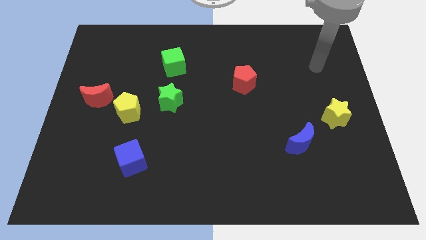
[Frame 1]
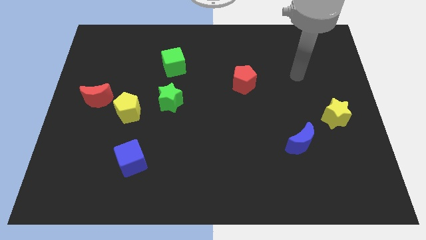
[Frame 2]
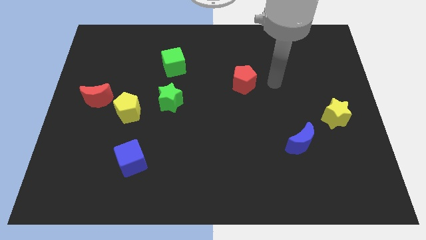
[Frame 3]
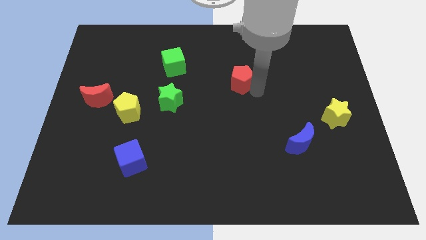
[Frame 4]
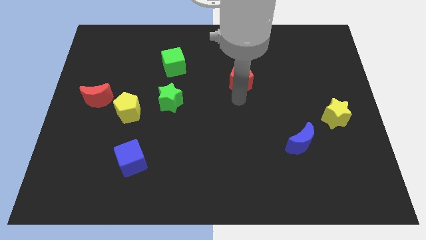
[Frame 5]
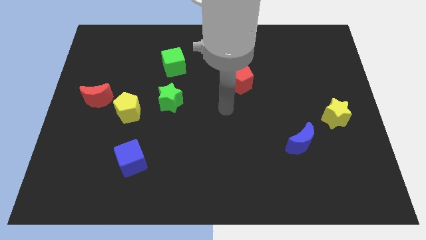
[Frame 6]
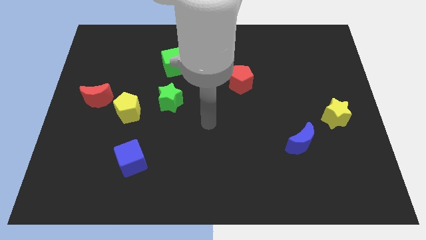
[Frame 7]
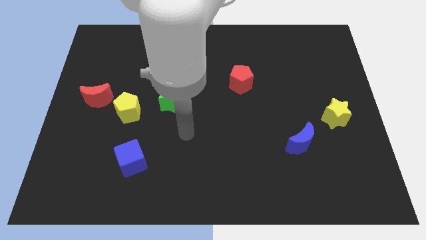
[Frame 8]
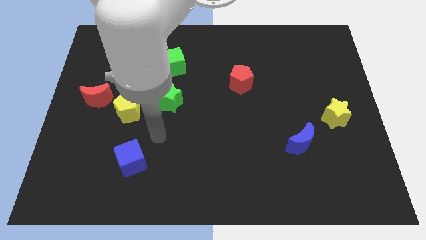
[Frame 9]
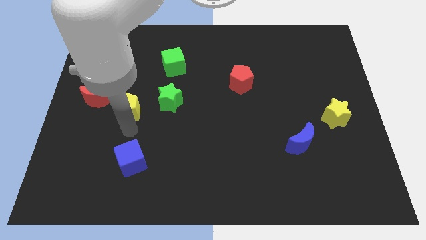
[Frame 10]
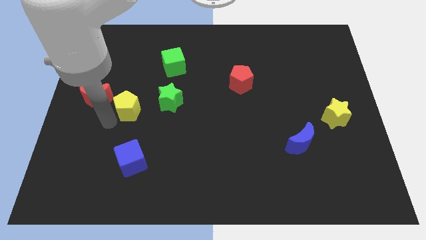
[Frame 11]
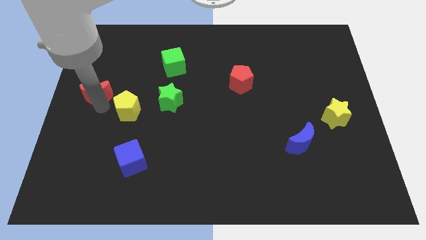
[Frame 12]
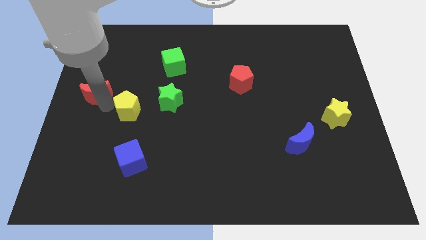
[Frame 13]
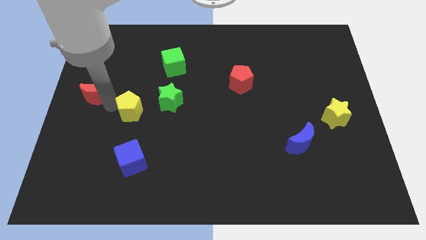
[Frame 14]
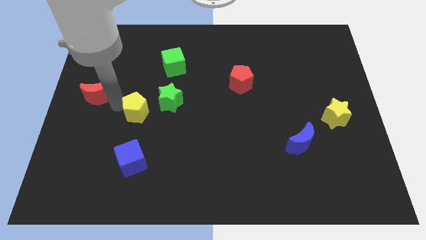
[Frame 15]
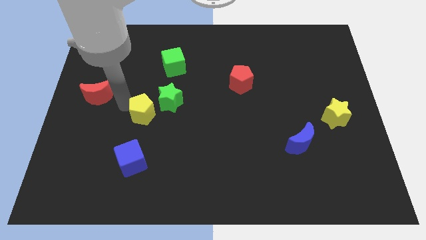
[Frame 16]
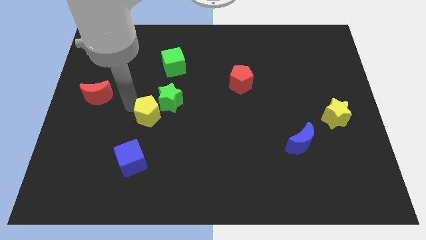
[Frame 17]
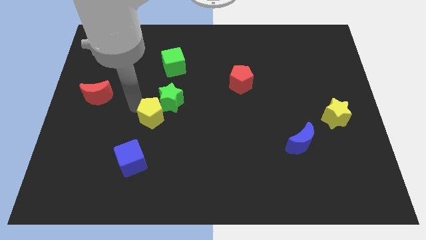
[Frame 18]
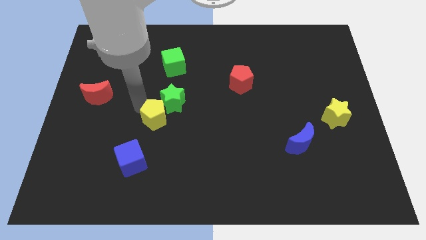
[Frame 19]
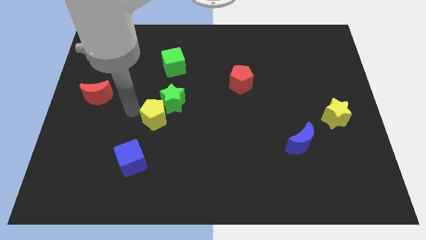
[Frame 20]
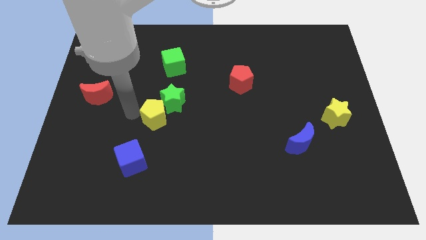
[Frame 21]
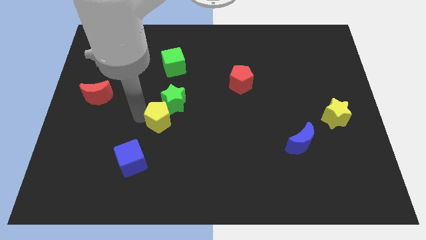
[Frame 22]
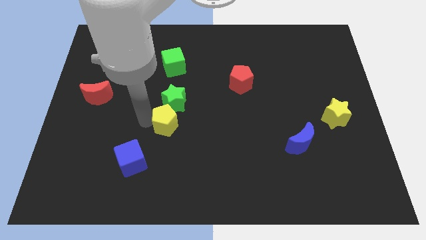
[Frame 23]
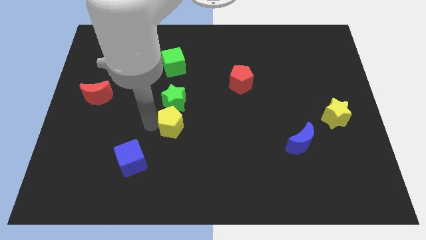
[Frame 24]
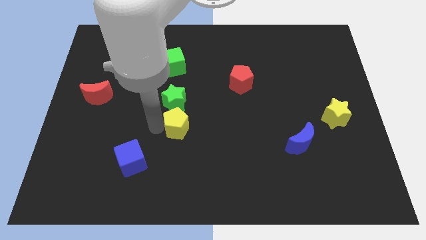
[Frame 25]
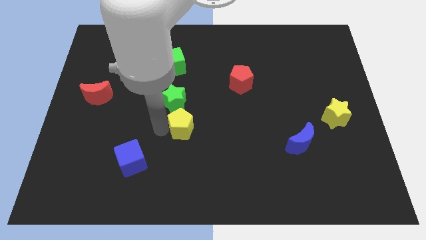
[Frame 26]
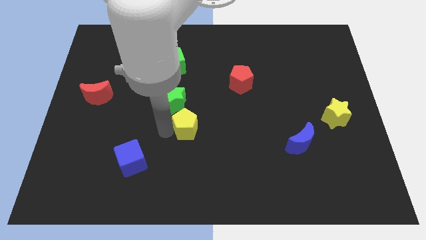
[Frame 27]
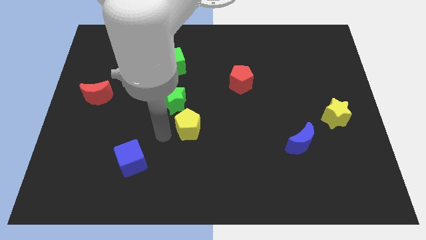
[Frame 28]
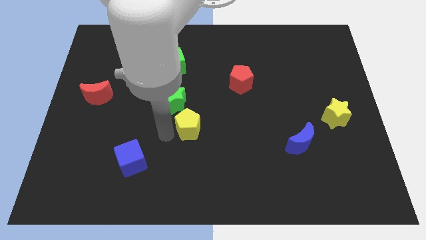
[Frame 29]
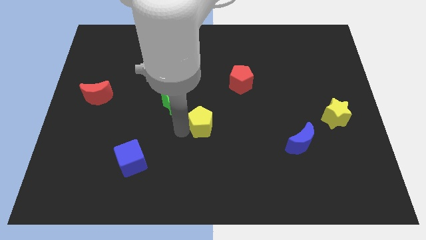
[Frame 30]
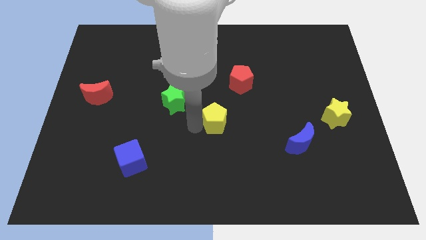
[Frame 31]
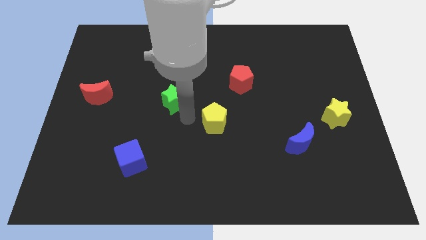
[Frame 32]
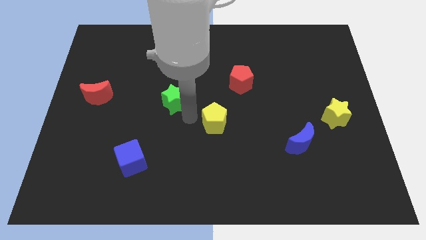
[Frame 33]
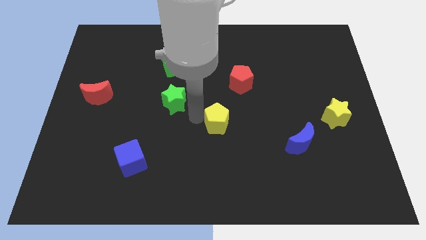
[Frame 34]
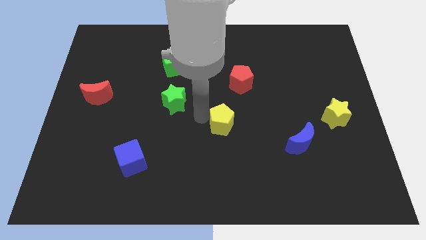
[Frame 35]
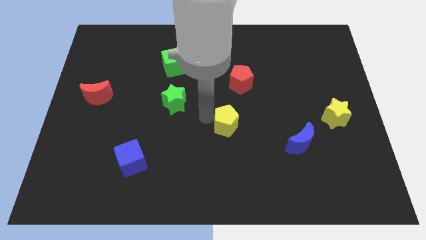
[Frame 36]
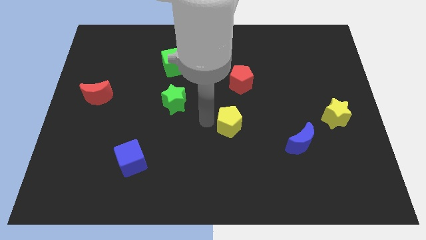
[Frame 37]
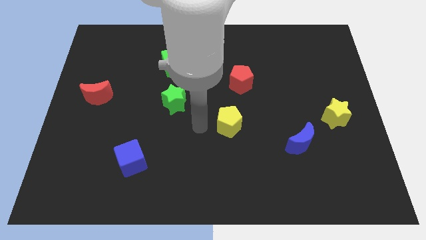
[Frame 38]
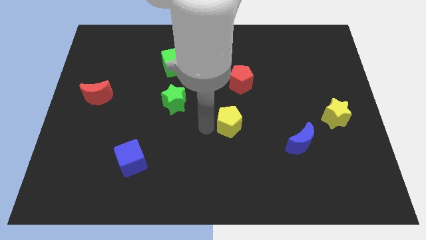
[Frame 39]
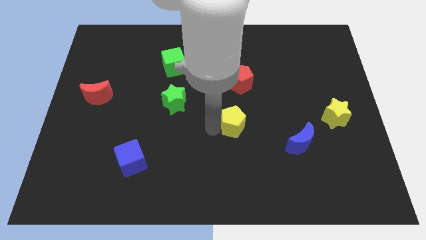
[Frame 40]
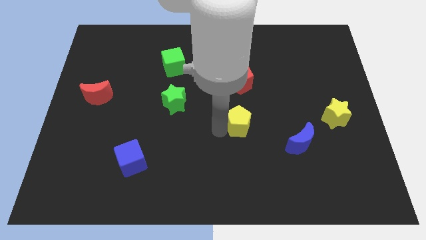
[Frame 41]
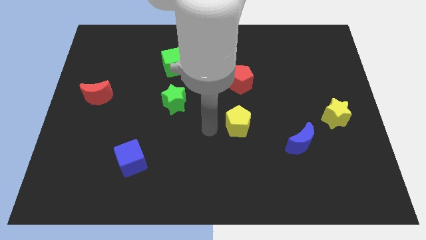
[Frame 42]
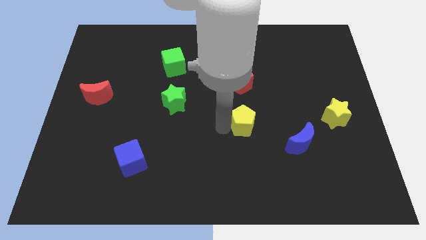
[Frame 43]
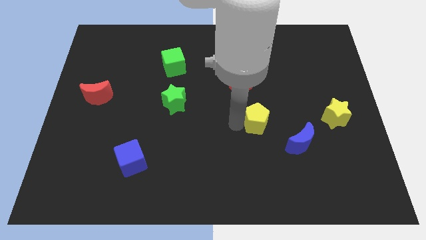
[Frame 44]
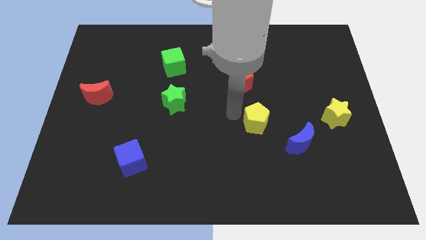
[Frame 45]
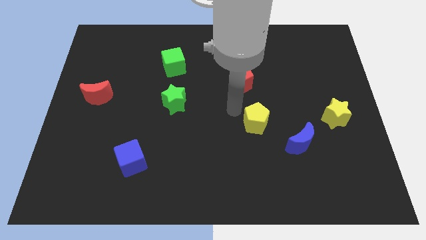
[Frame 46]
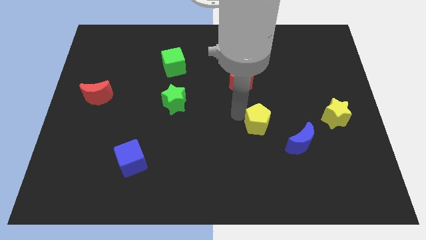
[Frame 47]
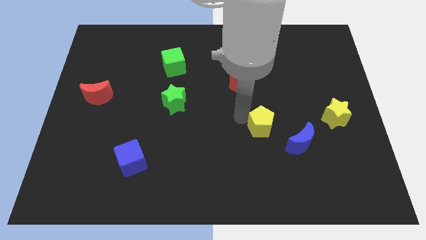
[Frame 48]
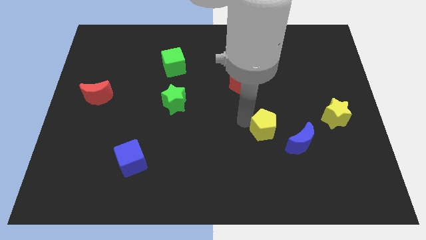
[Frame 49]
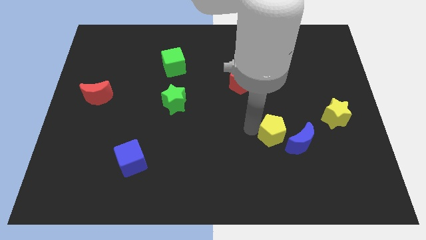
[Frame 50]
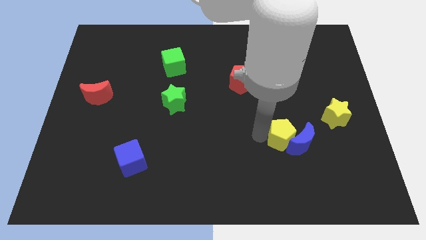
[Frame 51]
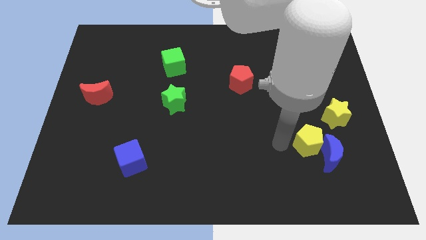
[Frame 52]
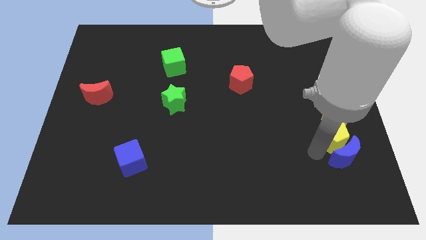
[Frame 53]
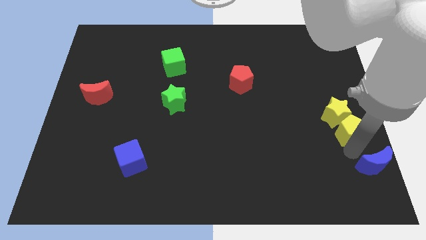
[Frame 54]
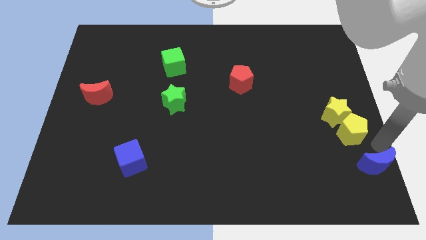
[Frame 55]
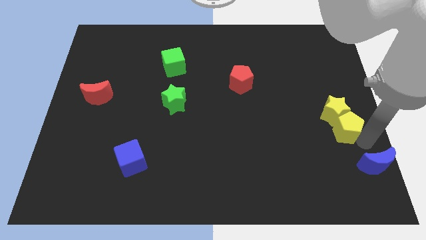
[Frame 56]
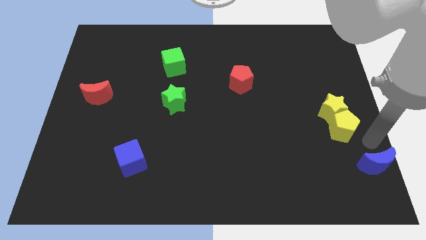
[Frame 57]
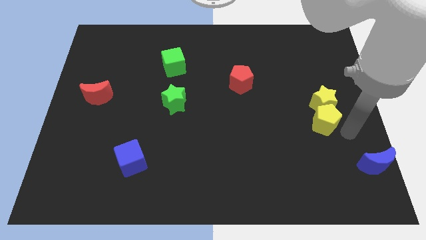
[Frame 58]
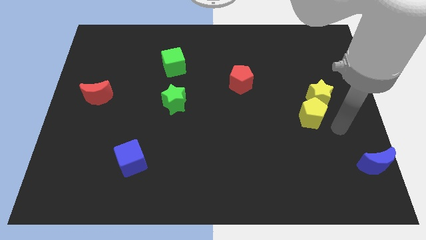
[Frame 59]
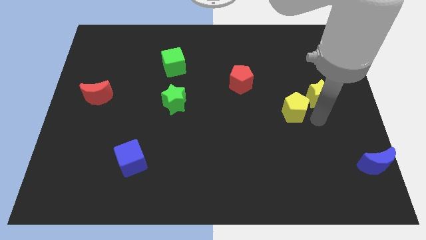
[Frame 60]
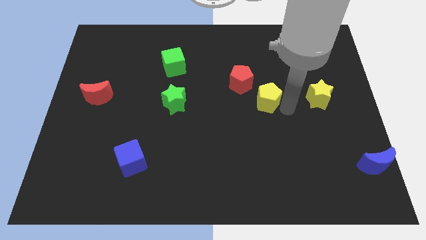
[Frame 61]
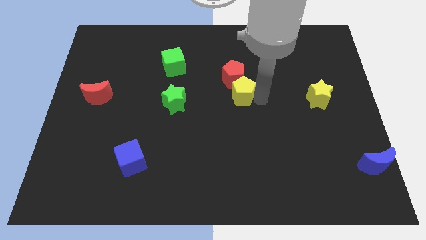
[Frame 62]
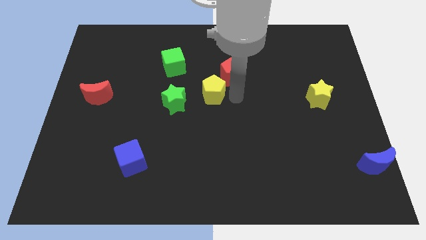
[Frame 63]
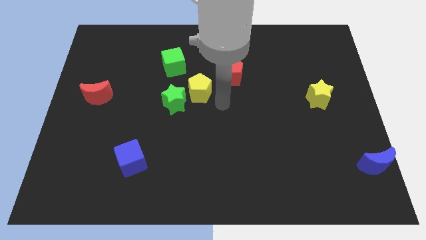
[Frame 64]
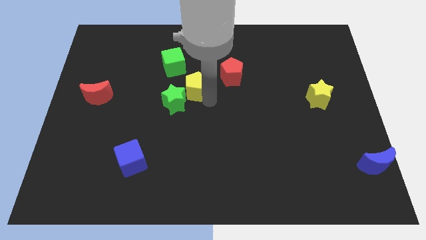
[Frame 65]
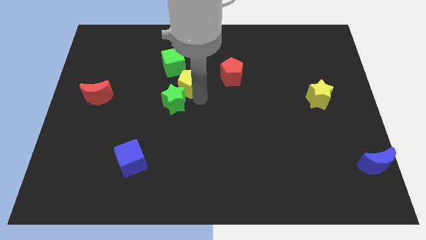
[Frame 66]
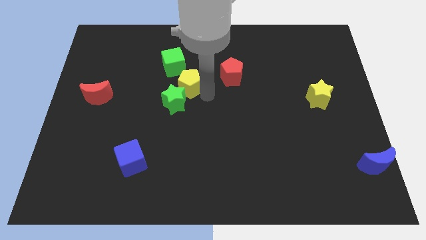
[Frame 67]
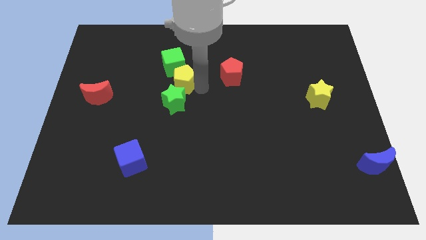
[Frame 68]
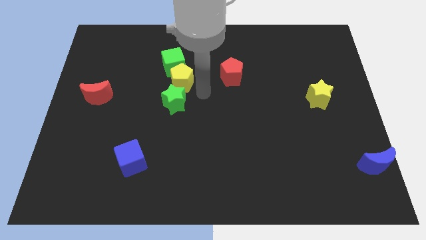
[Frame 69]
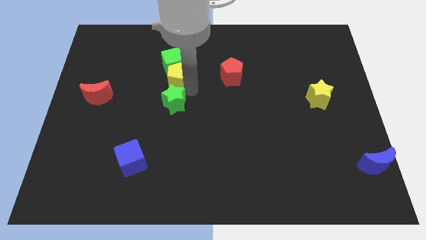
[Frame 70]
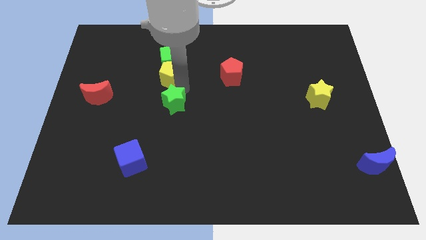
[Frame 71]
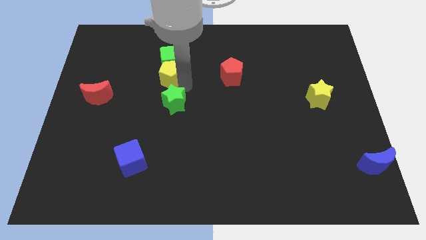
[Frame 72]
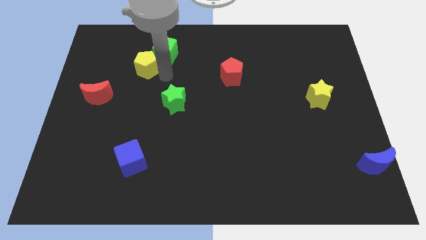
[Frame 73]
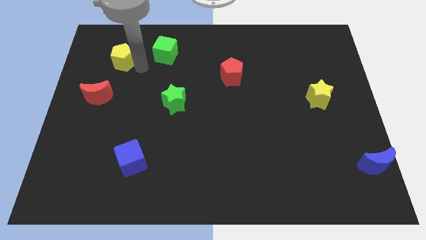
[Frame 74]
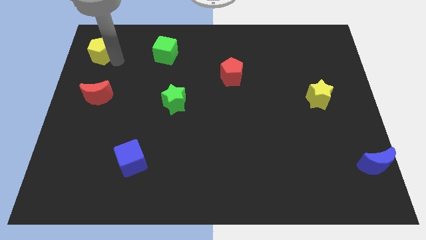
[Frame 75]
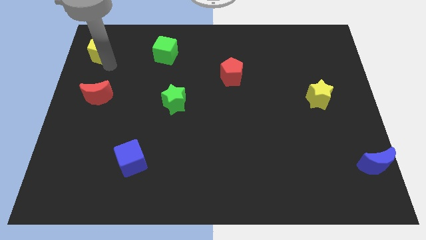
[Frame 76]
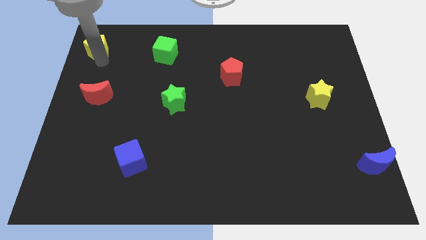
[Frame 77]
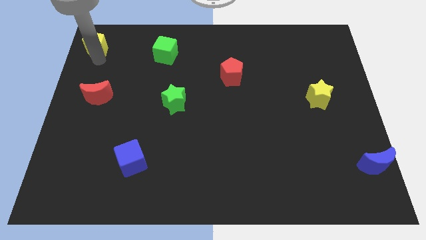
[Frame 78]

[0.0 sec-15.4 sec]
move the yellow pentagon to the upper left corner
